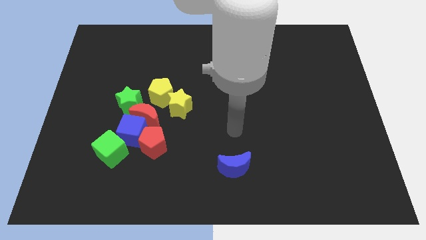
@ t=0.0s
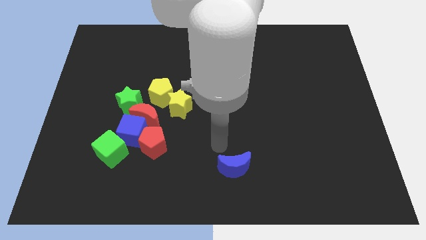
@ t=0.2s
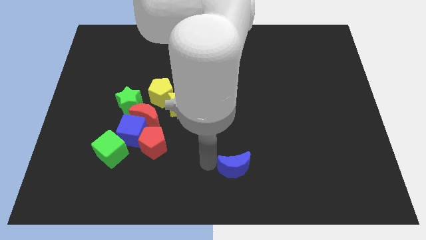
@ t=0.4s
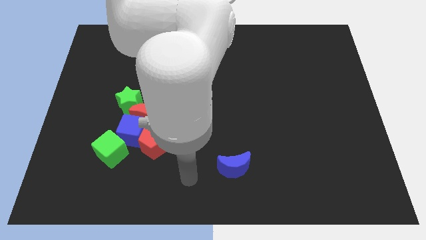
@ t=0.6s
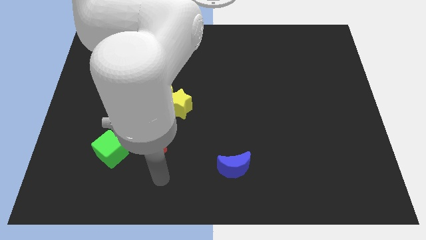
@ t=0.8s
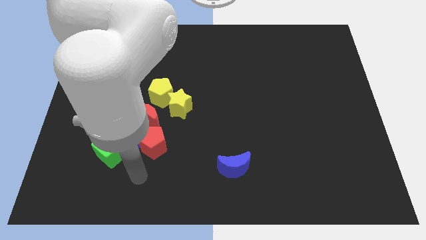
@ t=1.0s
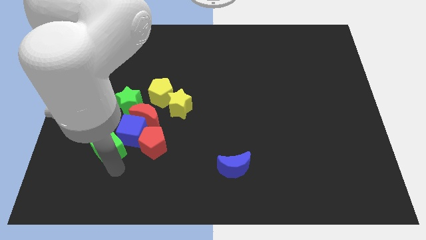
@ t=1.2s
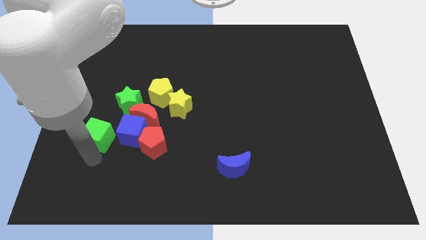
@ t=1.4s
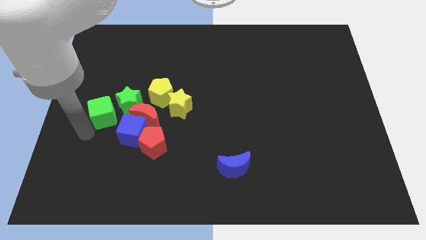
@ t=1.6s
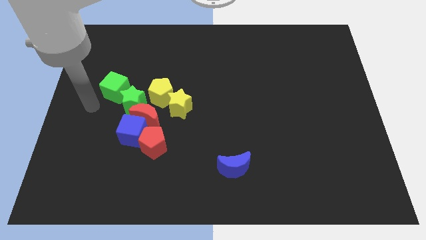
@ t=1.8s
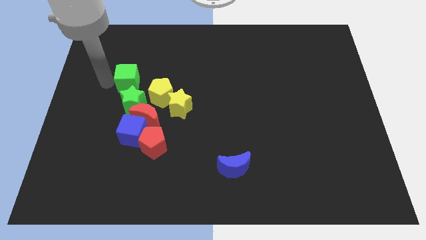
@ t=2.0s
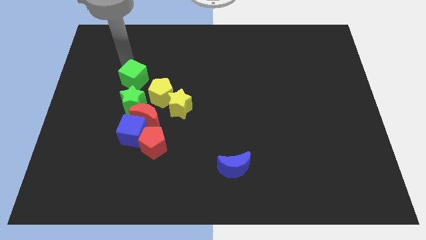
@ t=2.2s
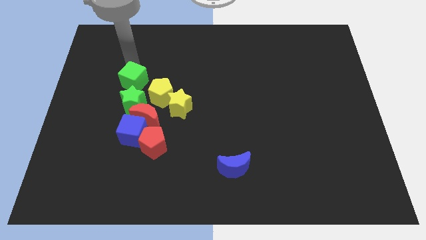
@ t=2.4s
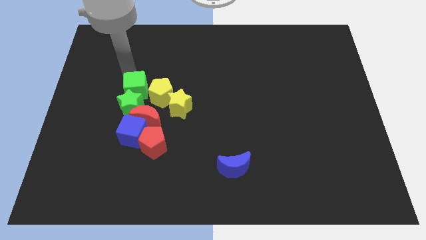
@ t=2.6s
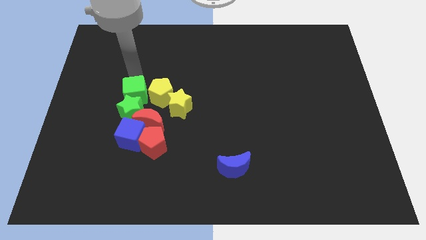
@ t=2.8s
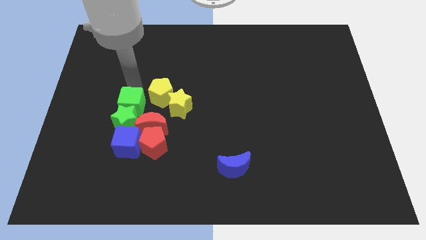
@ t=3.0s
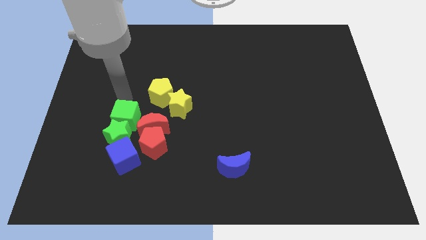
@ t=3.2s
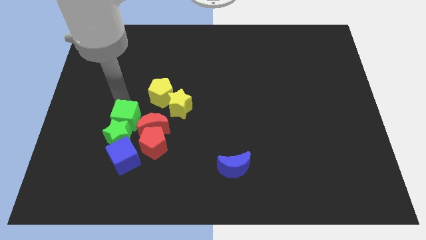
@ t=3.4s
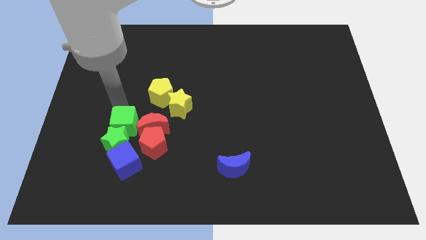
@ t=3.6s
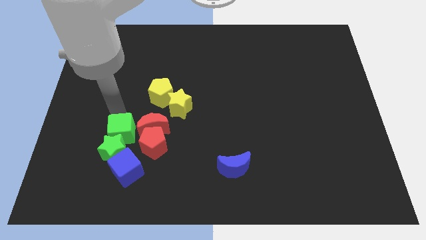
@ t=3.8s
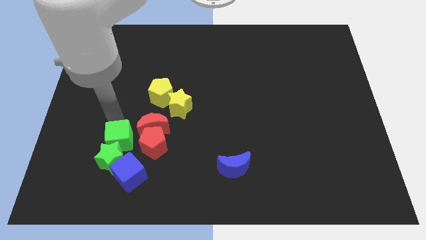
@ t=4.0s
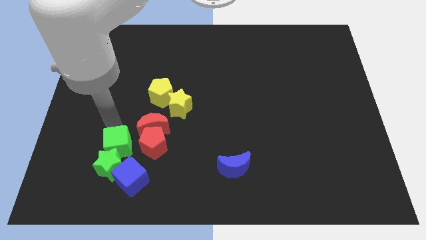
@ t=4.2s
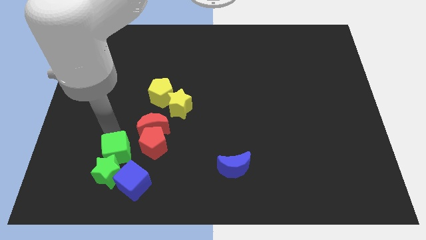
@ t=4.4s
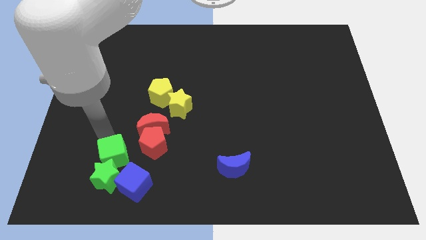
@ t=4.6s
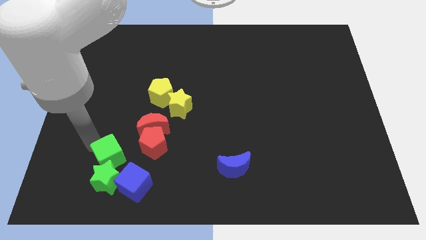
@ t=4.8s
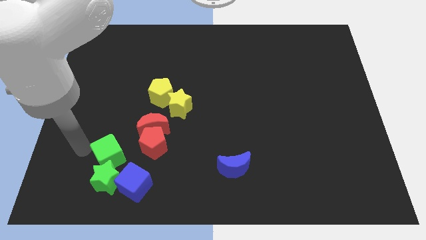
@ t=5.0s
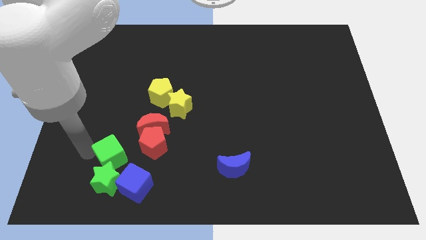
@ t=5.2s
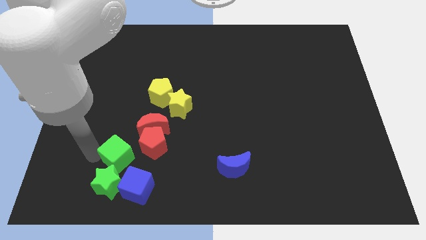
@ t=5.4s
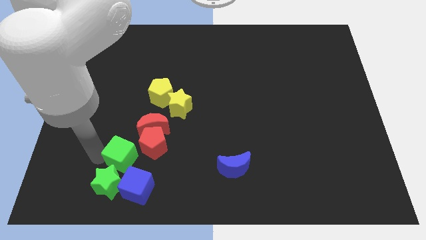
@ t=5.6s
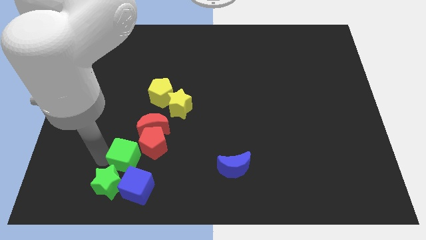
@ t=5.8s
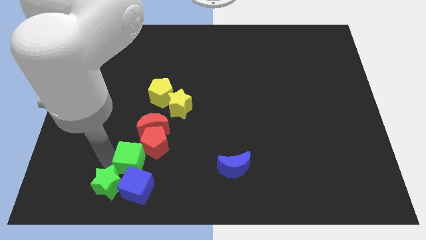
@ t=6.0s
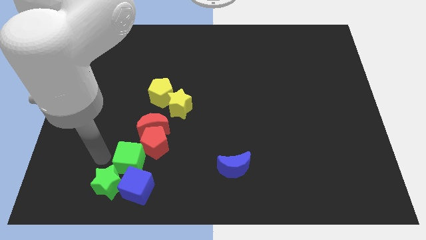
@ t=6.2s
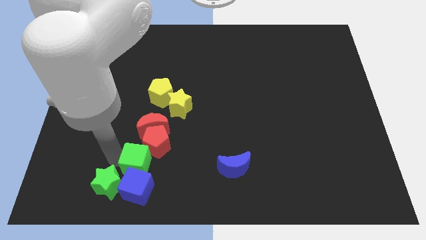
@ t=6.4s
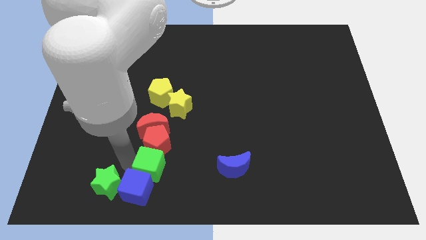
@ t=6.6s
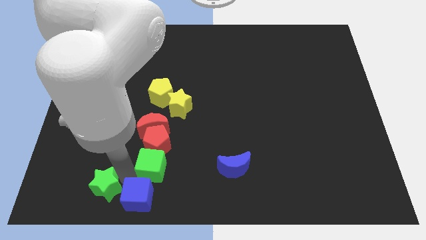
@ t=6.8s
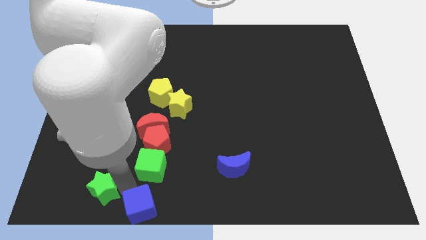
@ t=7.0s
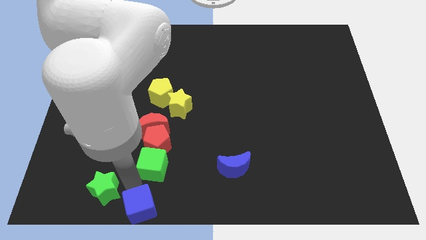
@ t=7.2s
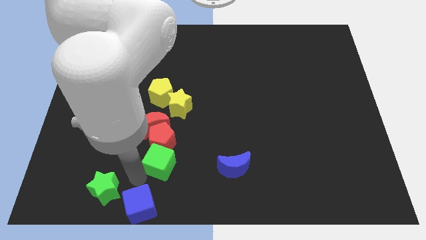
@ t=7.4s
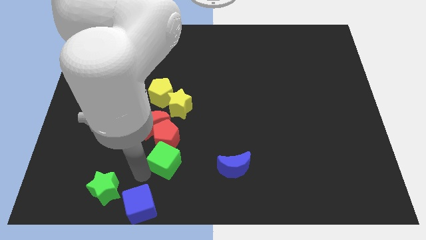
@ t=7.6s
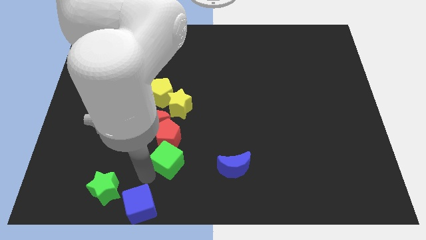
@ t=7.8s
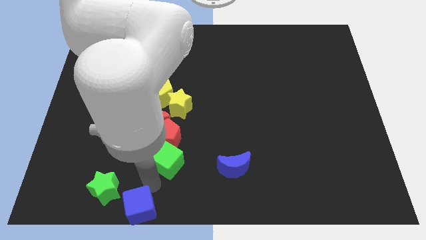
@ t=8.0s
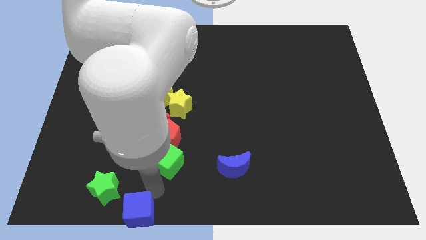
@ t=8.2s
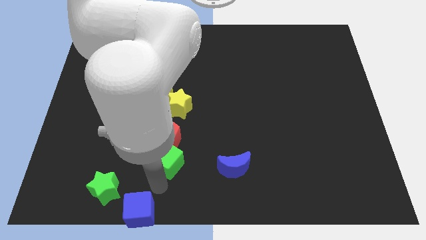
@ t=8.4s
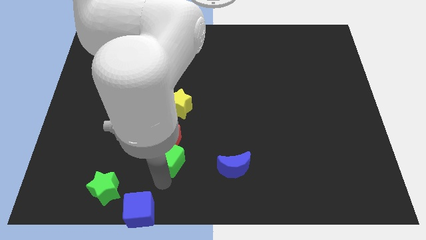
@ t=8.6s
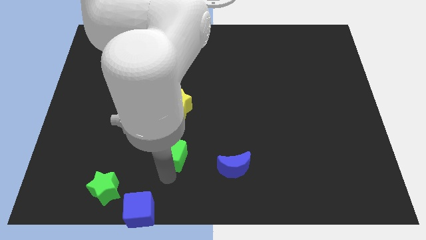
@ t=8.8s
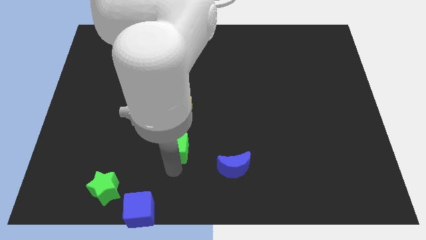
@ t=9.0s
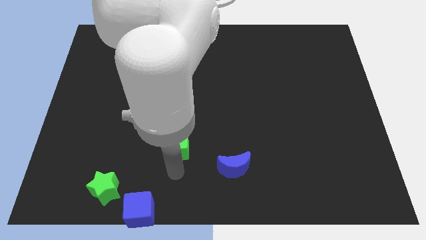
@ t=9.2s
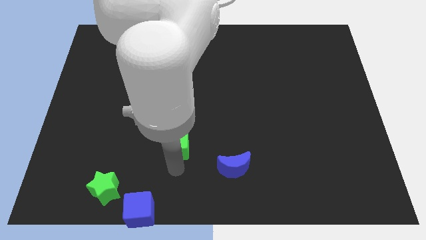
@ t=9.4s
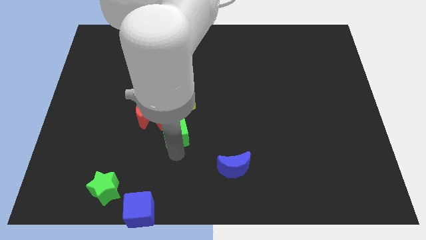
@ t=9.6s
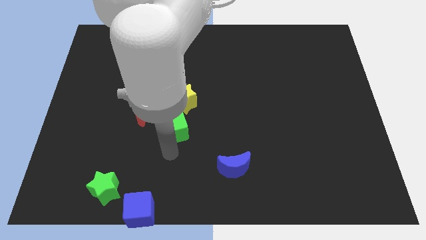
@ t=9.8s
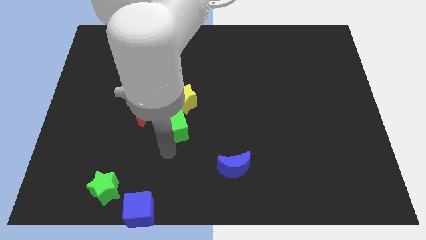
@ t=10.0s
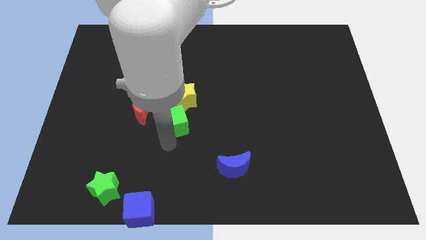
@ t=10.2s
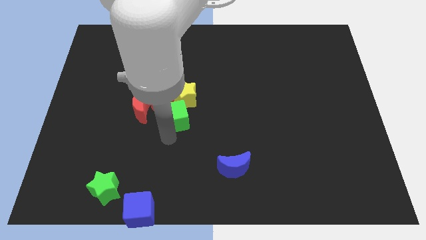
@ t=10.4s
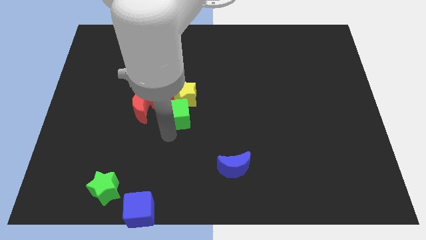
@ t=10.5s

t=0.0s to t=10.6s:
push the green cube towards the yellow star

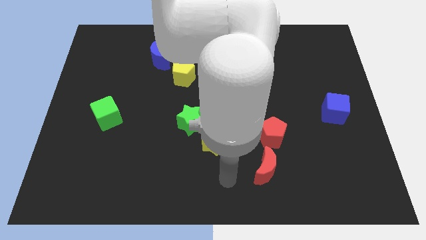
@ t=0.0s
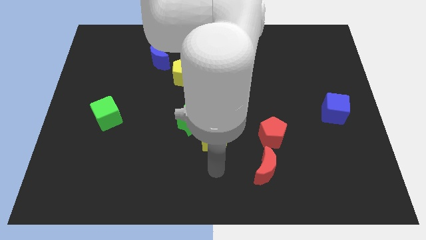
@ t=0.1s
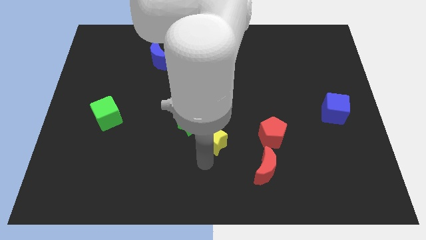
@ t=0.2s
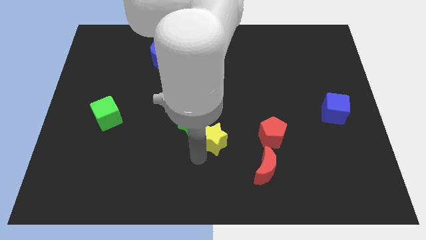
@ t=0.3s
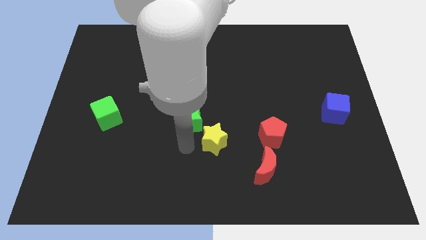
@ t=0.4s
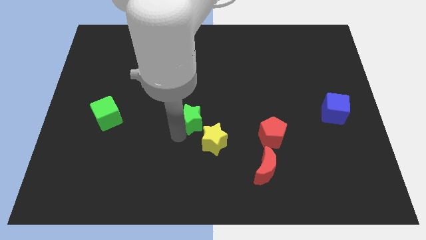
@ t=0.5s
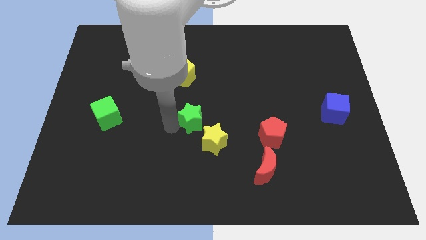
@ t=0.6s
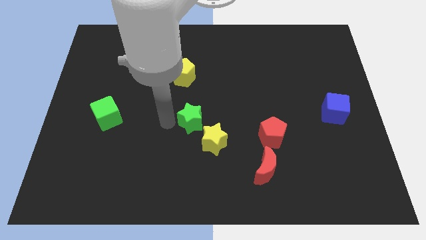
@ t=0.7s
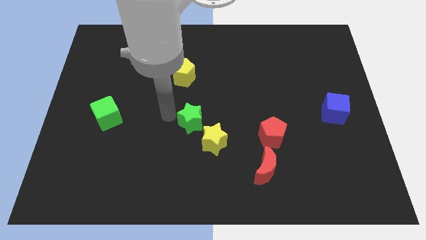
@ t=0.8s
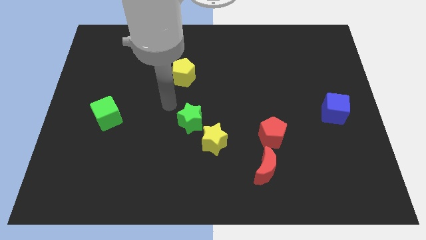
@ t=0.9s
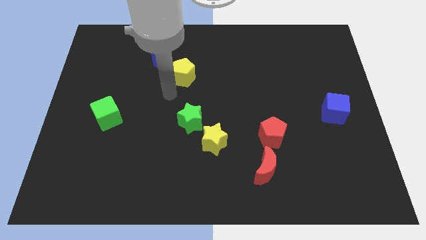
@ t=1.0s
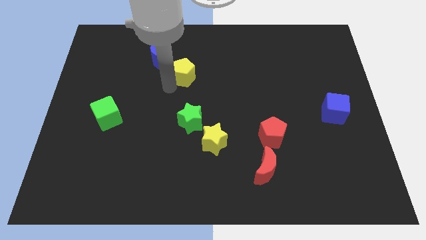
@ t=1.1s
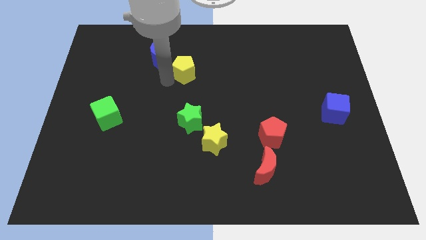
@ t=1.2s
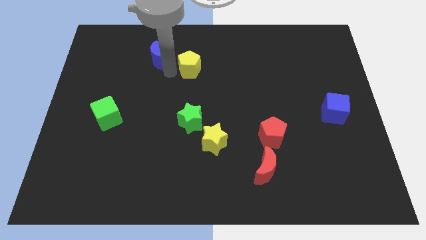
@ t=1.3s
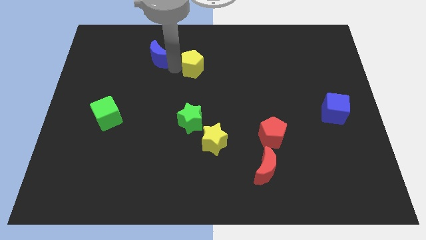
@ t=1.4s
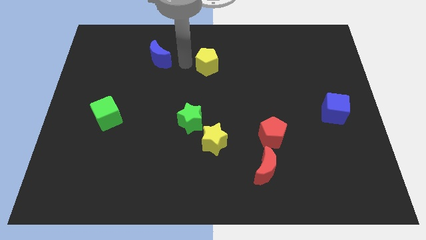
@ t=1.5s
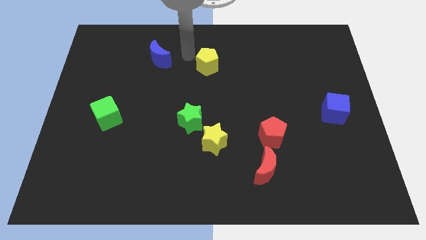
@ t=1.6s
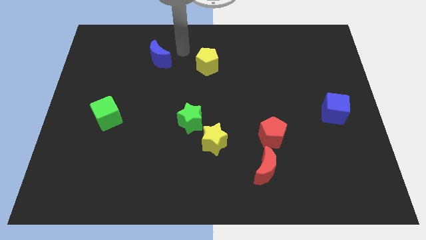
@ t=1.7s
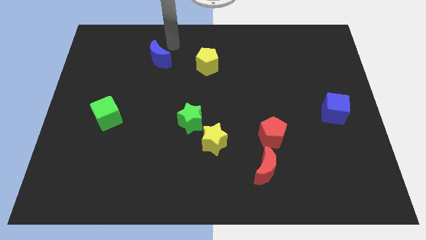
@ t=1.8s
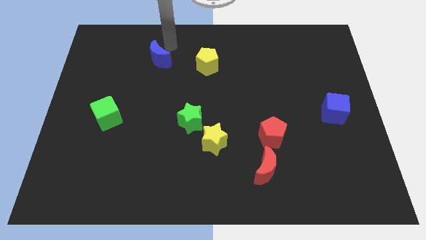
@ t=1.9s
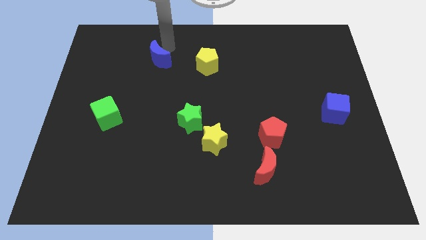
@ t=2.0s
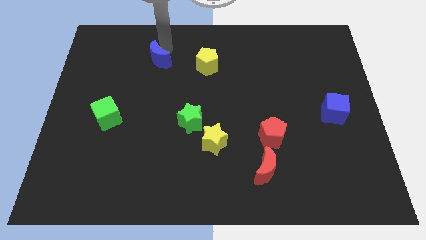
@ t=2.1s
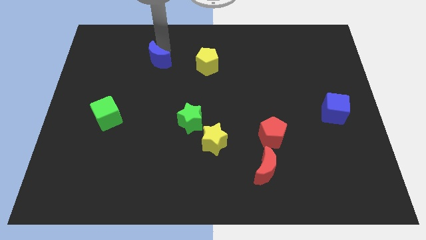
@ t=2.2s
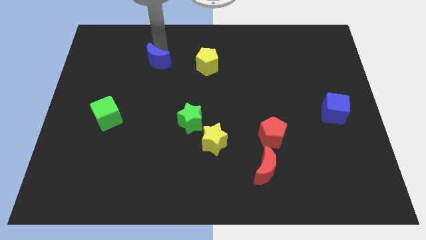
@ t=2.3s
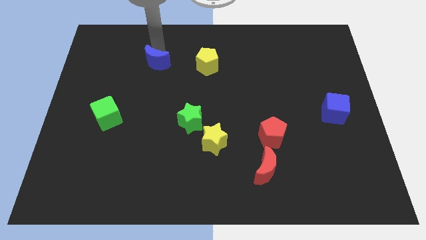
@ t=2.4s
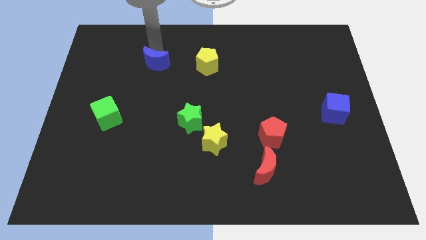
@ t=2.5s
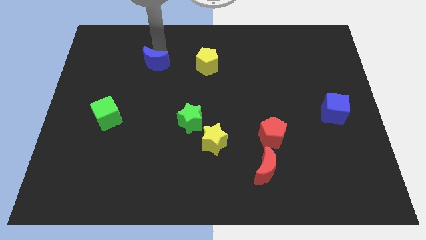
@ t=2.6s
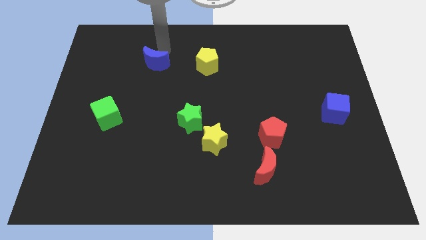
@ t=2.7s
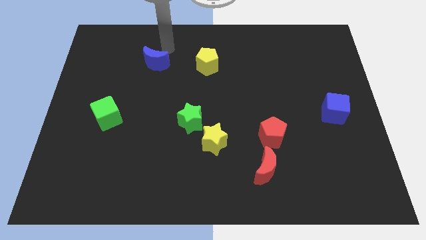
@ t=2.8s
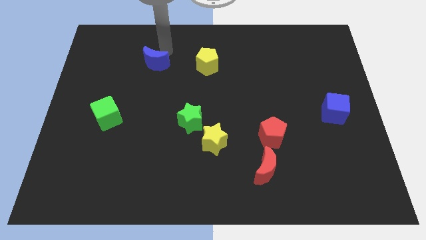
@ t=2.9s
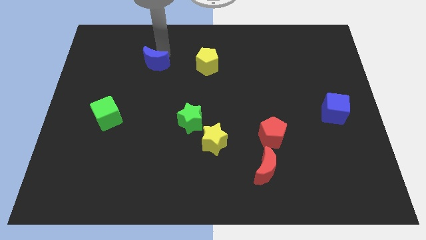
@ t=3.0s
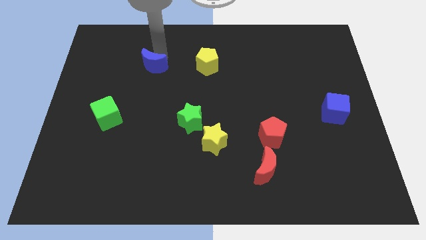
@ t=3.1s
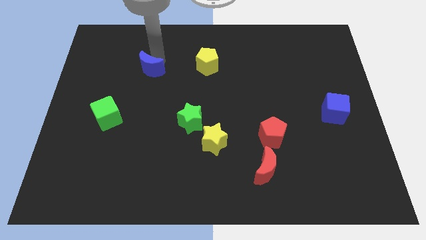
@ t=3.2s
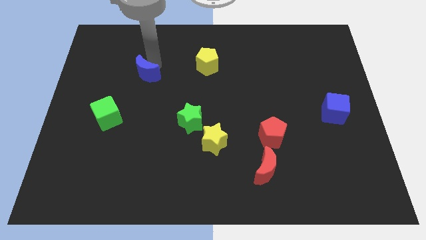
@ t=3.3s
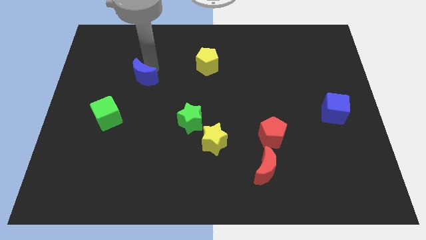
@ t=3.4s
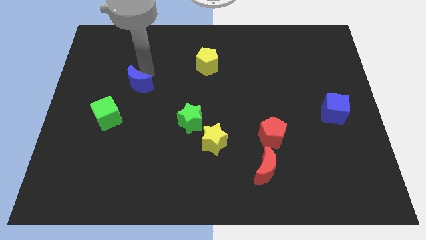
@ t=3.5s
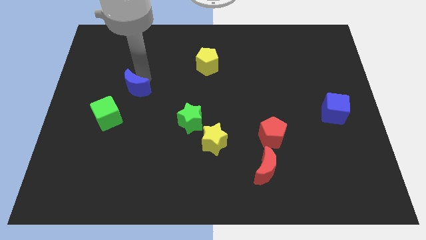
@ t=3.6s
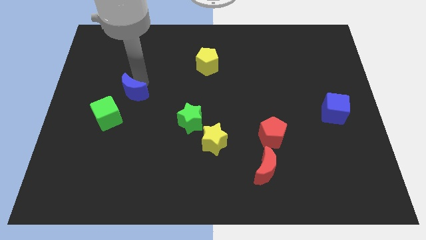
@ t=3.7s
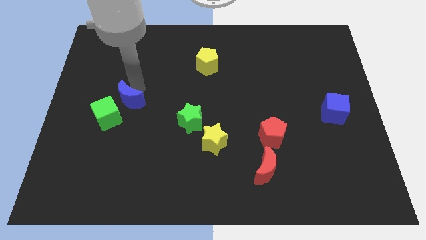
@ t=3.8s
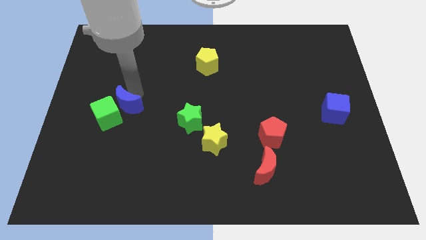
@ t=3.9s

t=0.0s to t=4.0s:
put the blue moon close to the green cube
